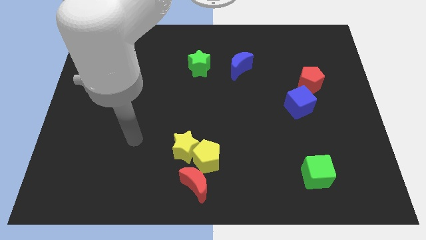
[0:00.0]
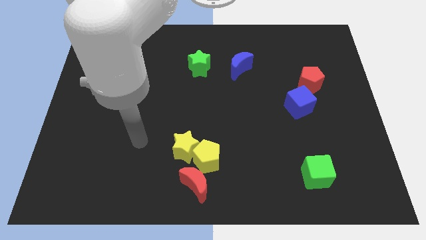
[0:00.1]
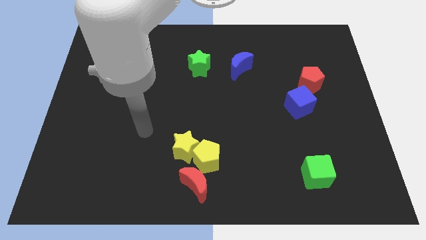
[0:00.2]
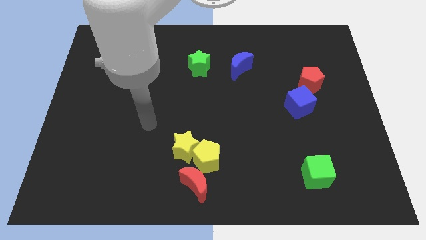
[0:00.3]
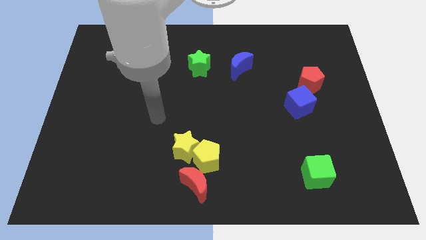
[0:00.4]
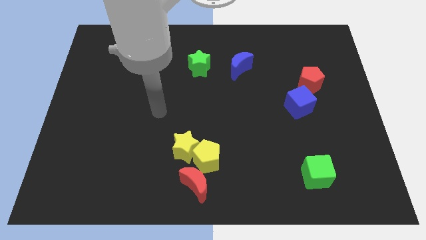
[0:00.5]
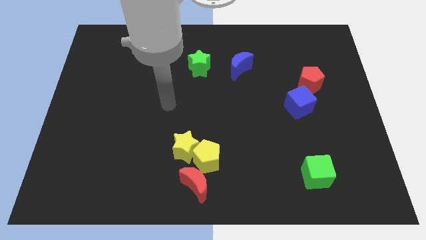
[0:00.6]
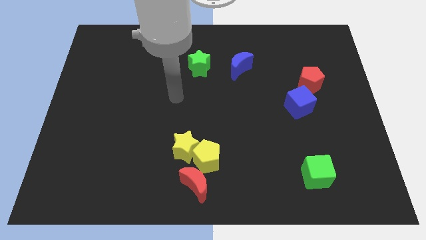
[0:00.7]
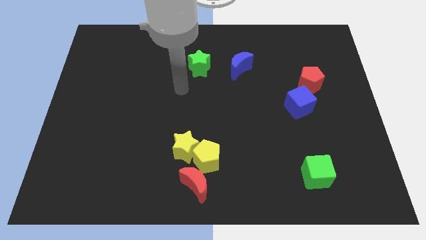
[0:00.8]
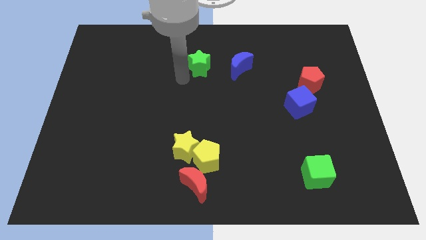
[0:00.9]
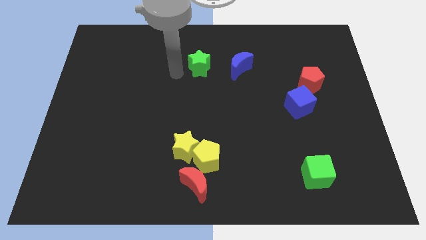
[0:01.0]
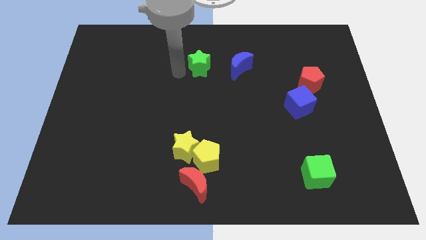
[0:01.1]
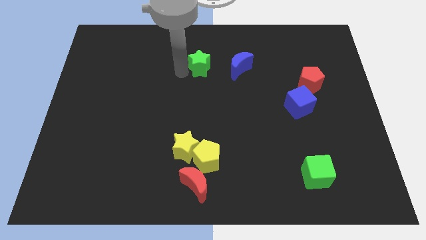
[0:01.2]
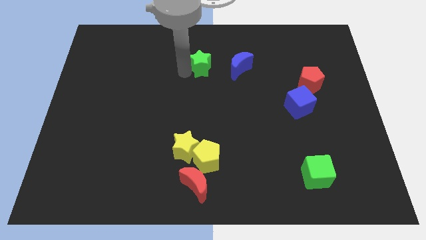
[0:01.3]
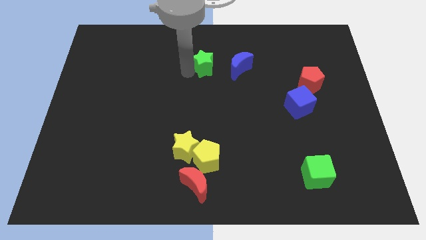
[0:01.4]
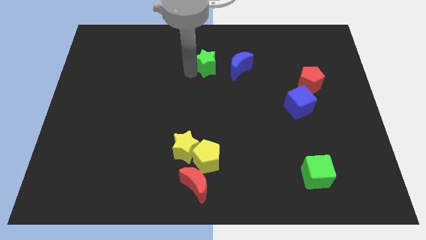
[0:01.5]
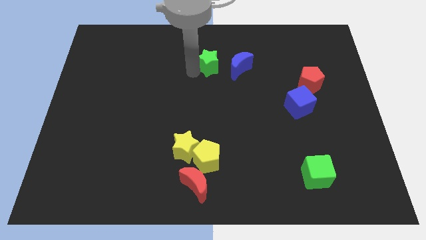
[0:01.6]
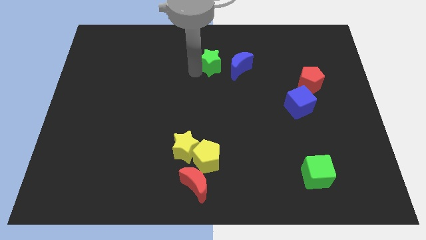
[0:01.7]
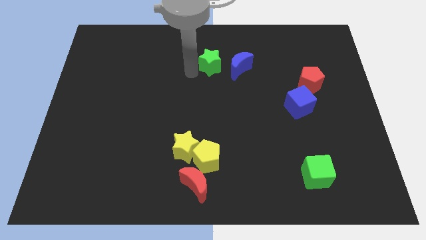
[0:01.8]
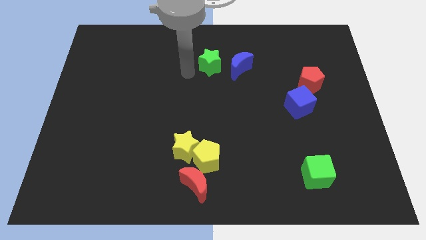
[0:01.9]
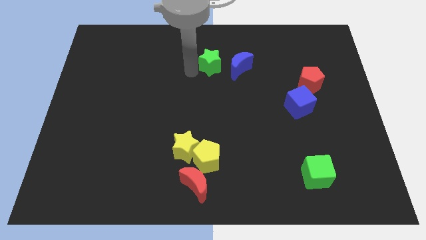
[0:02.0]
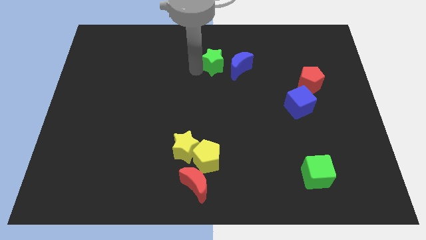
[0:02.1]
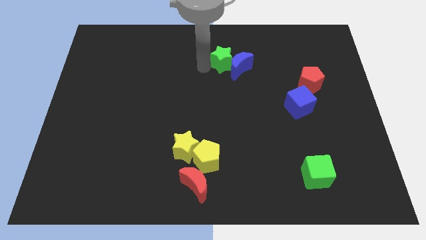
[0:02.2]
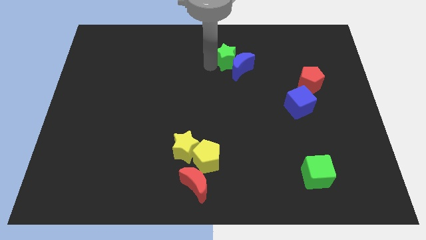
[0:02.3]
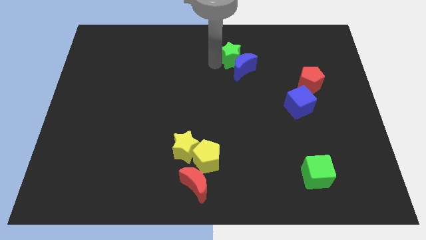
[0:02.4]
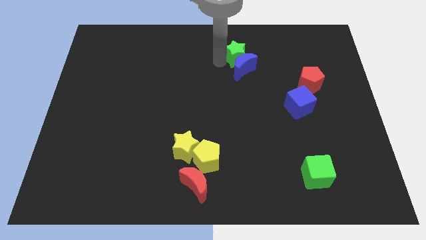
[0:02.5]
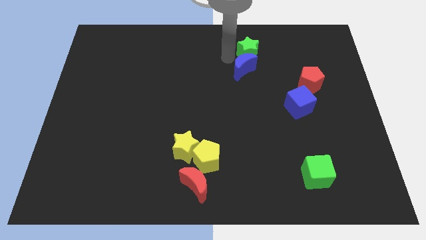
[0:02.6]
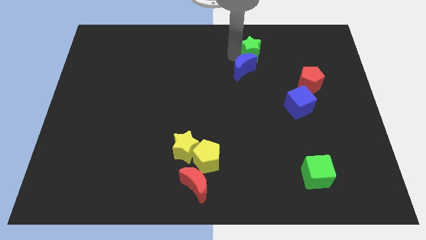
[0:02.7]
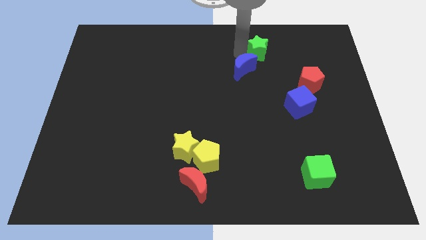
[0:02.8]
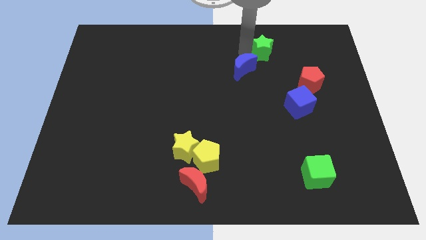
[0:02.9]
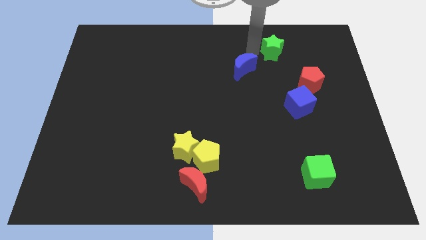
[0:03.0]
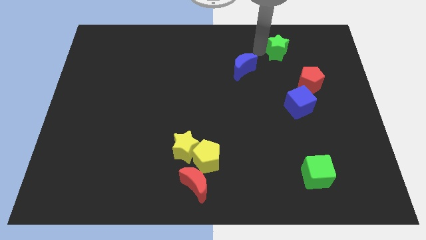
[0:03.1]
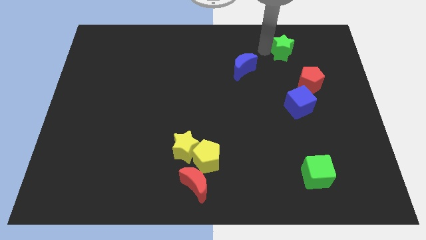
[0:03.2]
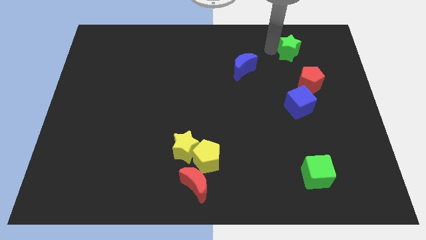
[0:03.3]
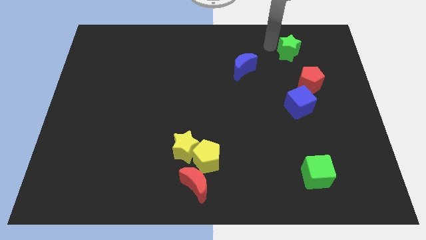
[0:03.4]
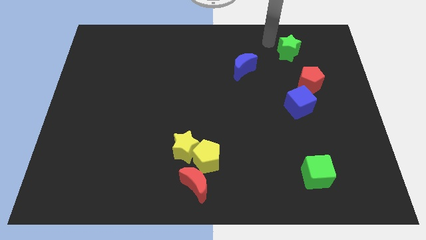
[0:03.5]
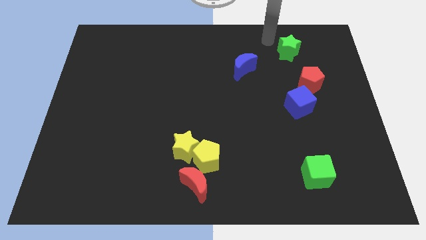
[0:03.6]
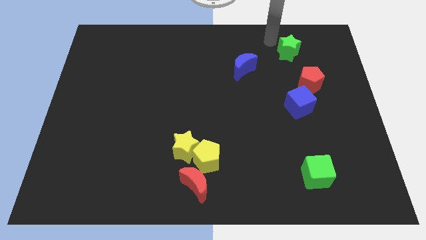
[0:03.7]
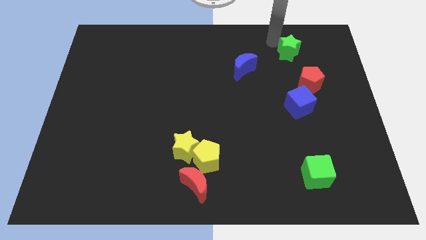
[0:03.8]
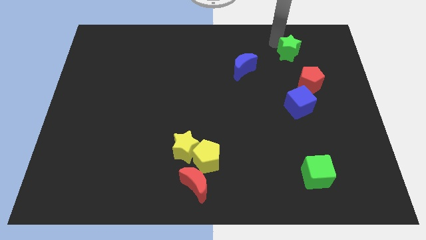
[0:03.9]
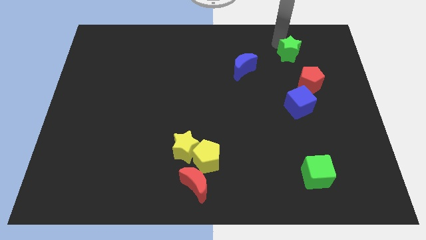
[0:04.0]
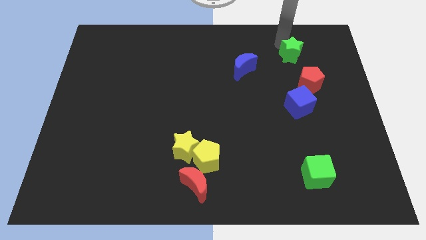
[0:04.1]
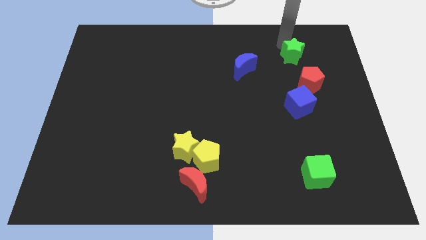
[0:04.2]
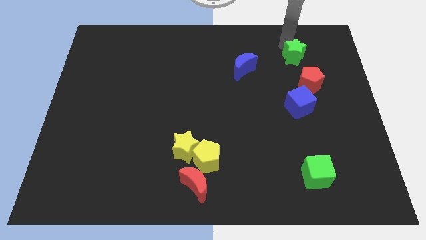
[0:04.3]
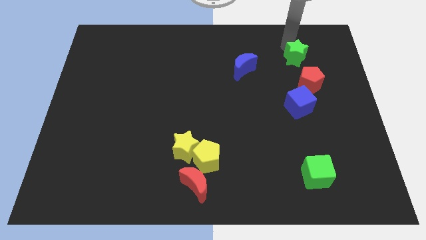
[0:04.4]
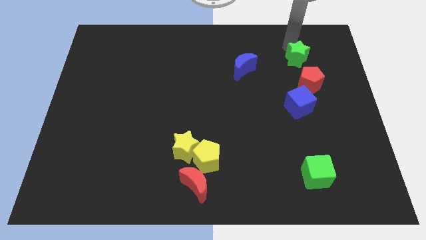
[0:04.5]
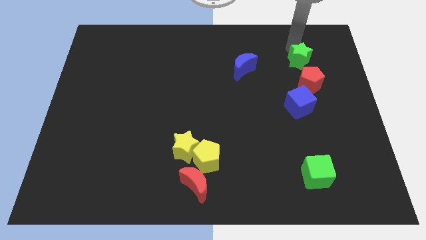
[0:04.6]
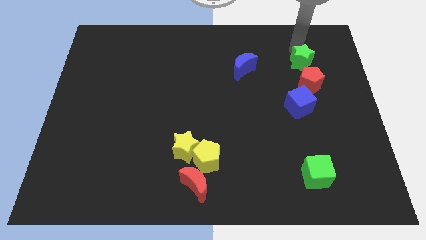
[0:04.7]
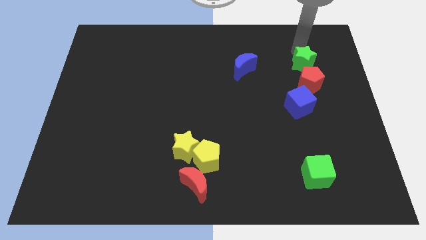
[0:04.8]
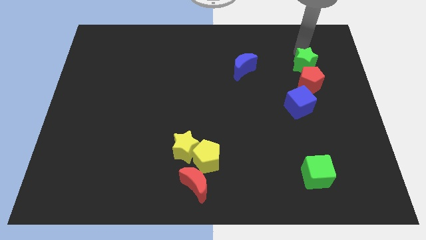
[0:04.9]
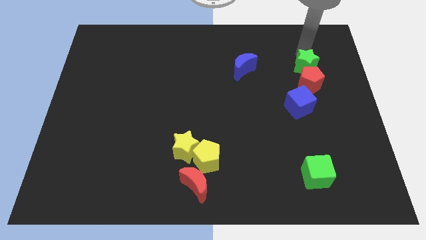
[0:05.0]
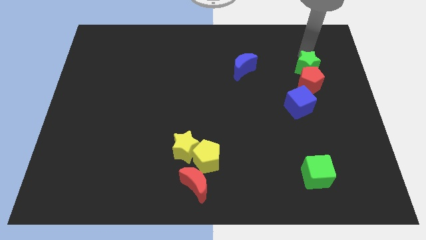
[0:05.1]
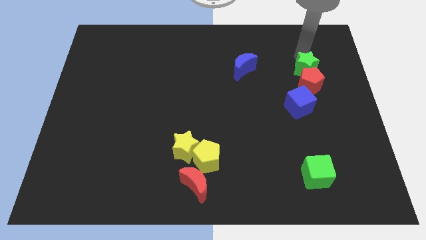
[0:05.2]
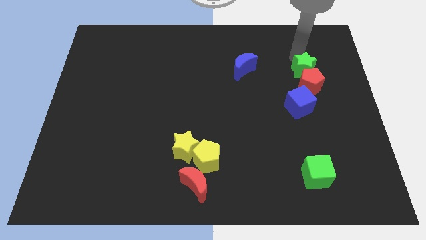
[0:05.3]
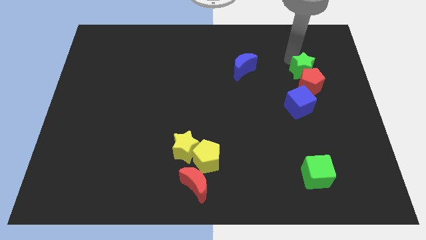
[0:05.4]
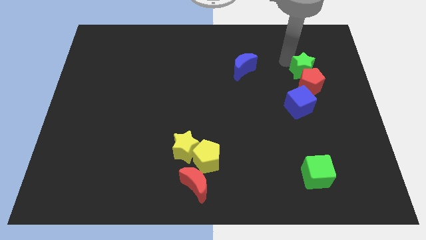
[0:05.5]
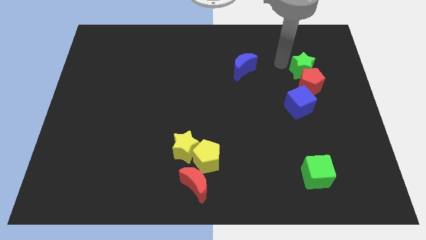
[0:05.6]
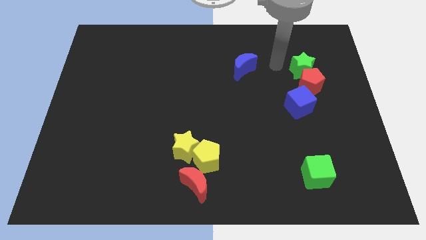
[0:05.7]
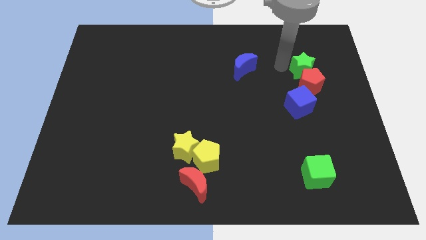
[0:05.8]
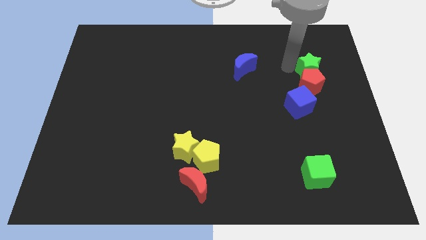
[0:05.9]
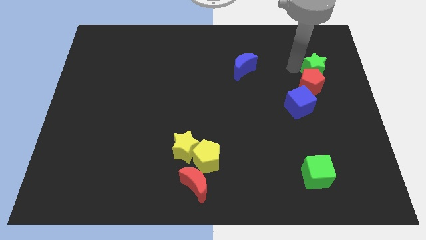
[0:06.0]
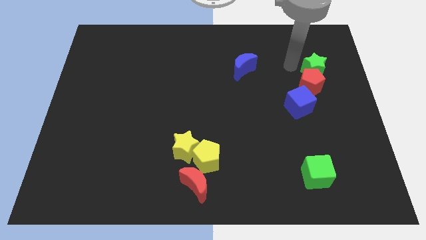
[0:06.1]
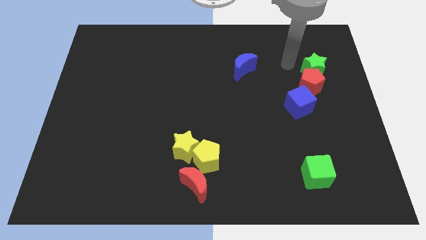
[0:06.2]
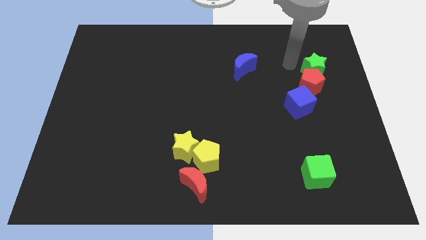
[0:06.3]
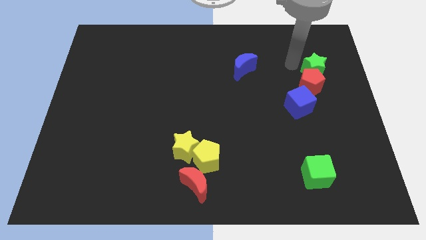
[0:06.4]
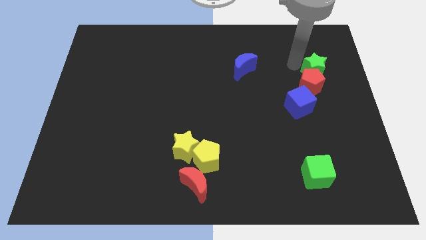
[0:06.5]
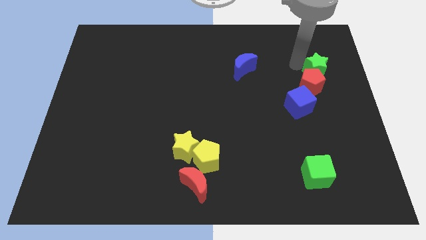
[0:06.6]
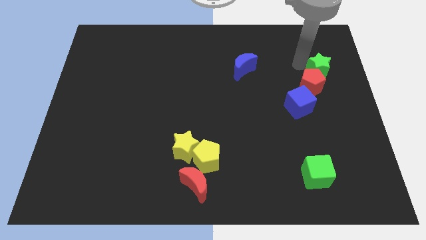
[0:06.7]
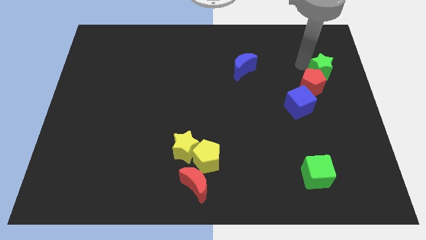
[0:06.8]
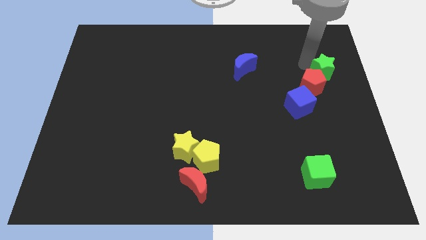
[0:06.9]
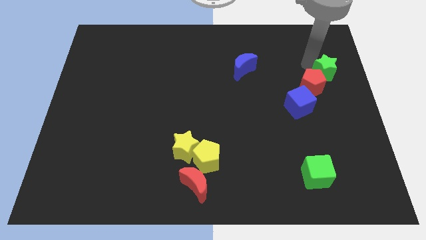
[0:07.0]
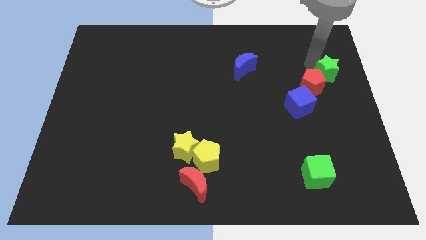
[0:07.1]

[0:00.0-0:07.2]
push the green star to the right side
